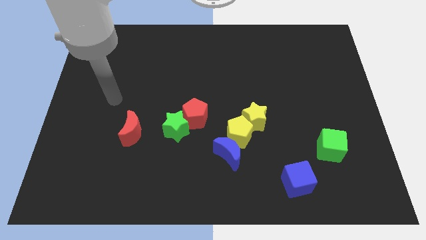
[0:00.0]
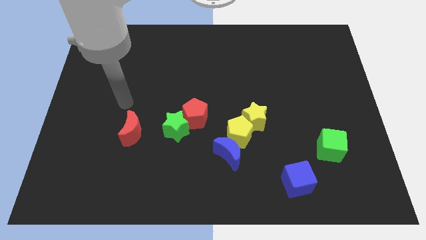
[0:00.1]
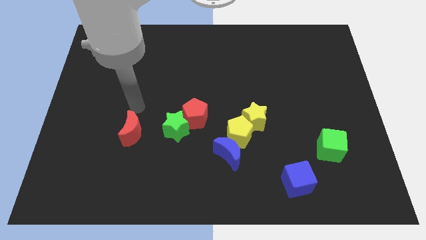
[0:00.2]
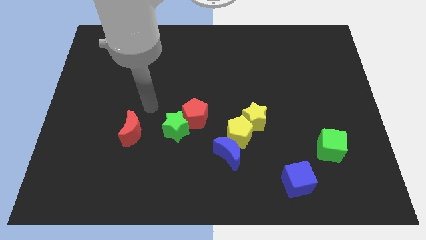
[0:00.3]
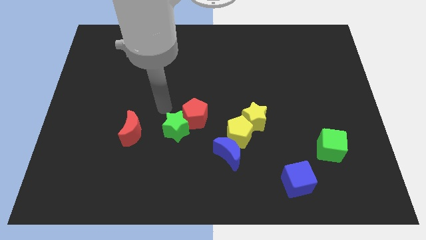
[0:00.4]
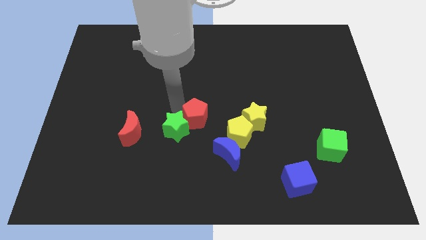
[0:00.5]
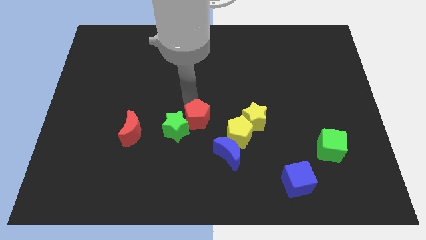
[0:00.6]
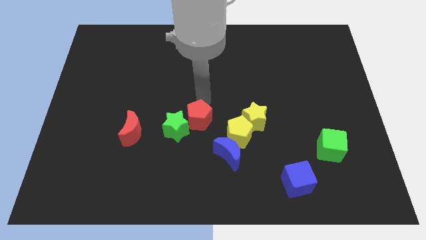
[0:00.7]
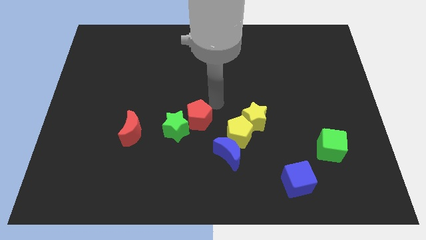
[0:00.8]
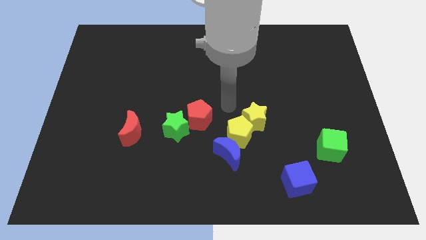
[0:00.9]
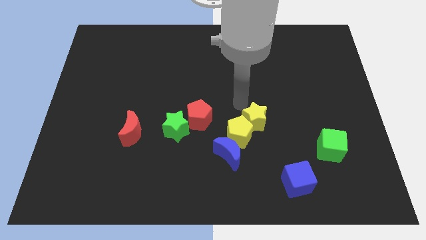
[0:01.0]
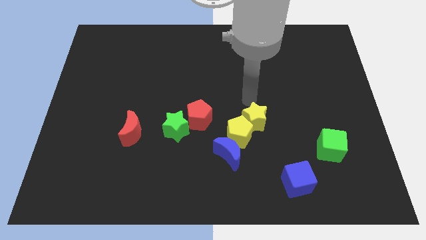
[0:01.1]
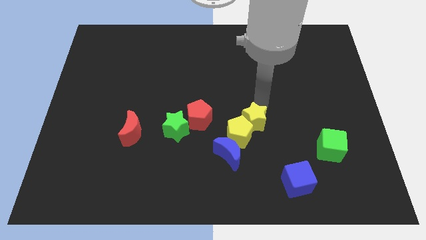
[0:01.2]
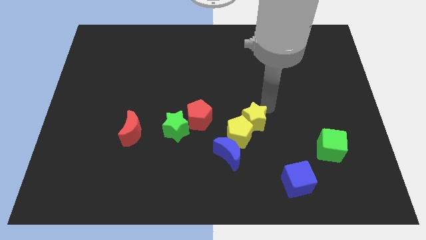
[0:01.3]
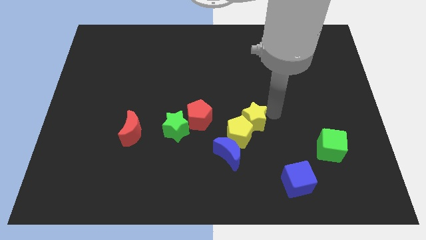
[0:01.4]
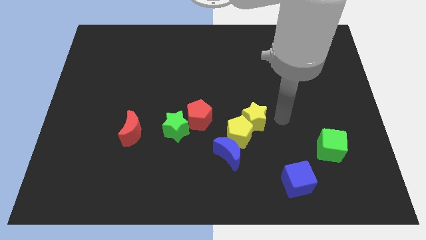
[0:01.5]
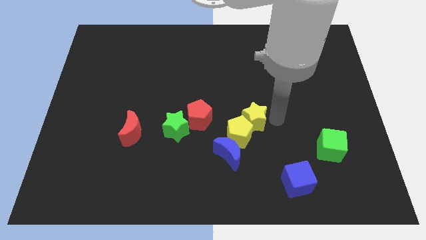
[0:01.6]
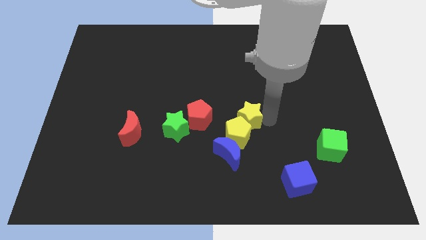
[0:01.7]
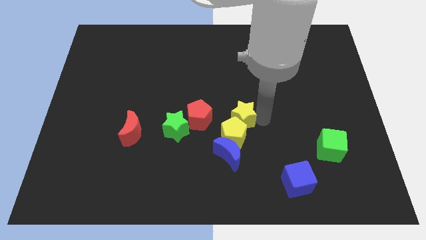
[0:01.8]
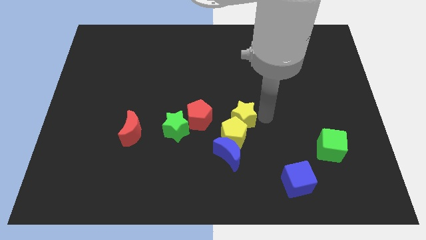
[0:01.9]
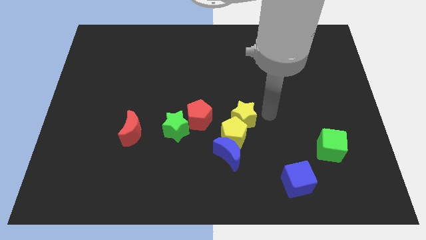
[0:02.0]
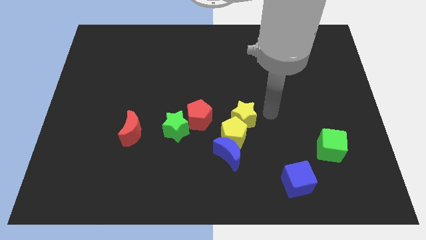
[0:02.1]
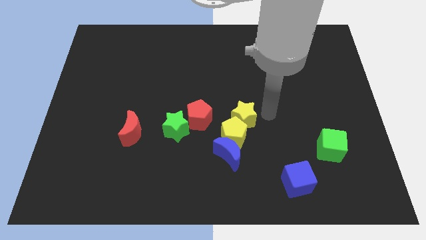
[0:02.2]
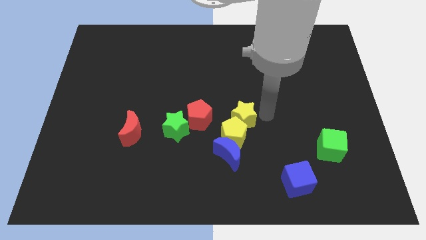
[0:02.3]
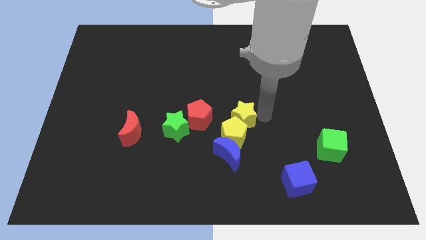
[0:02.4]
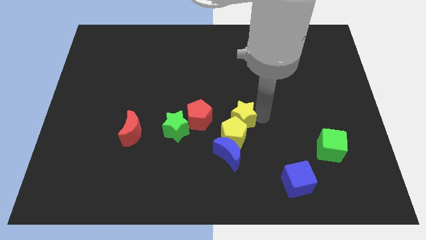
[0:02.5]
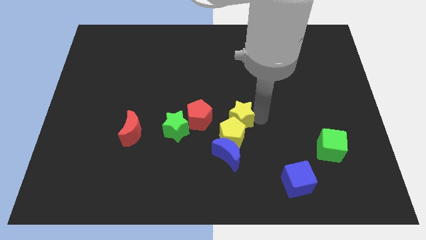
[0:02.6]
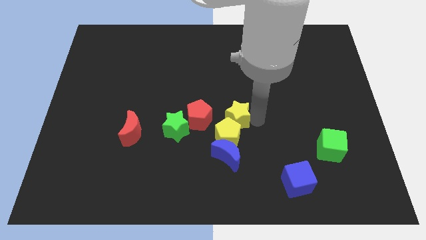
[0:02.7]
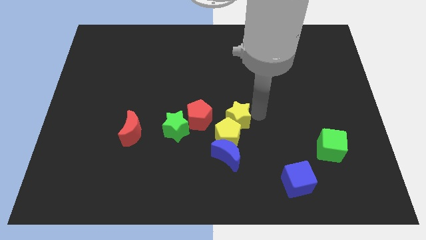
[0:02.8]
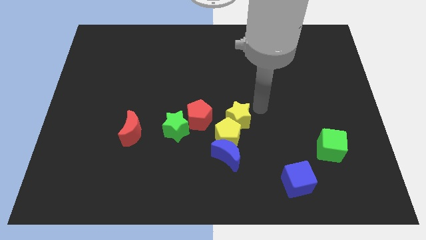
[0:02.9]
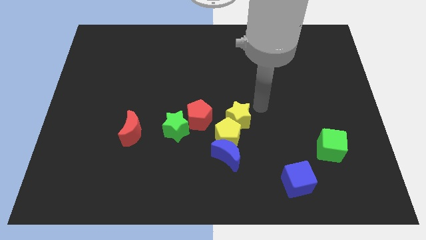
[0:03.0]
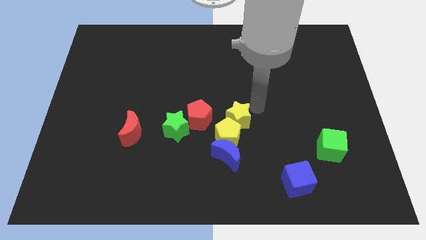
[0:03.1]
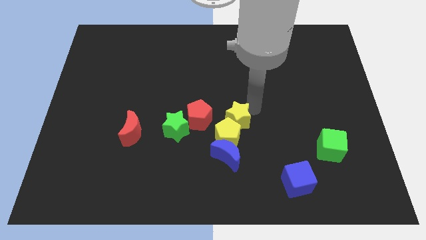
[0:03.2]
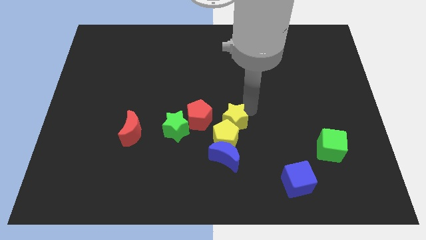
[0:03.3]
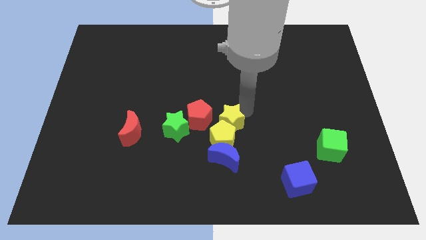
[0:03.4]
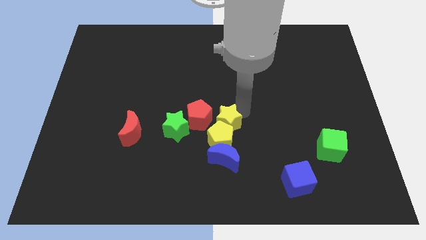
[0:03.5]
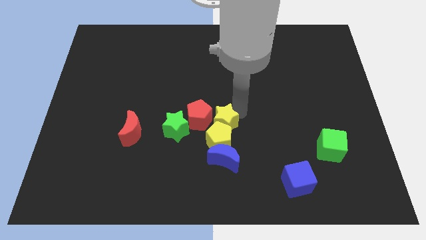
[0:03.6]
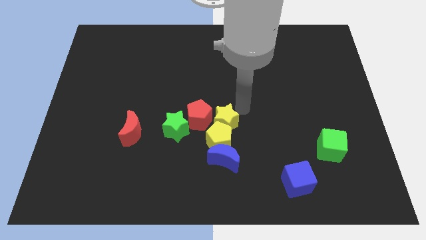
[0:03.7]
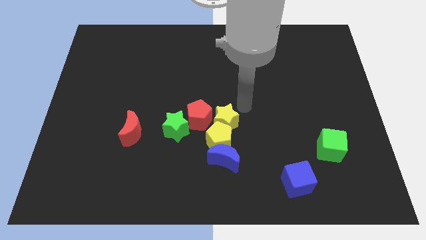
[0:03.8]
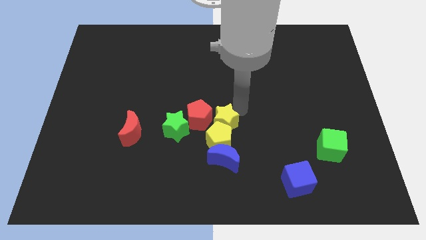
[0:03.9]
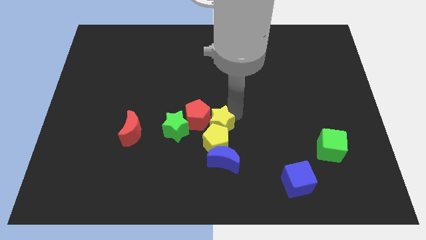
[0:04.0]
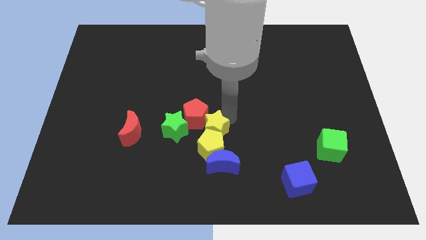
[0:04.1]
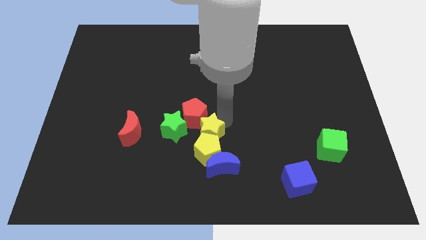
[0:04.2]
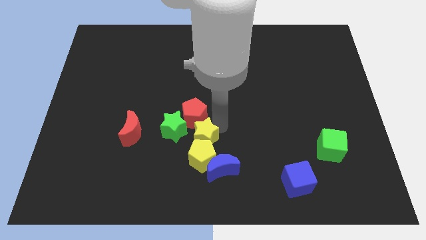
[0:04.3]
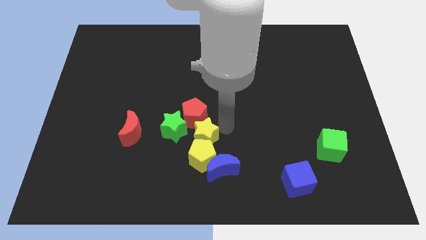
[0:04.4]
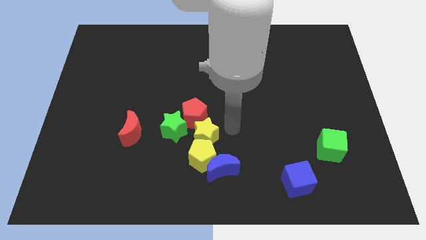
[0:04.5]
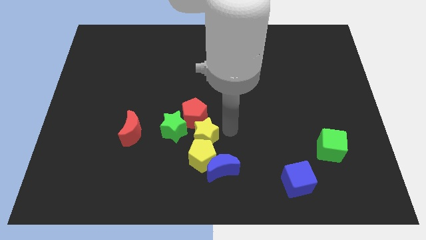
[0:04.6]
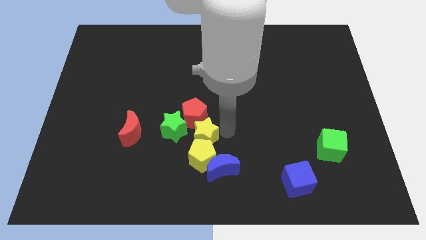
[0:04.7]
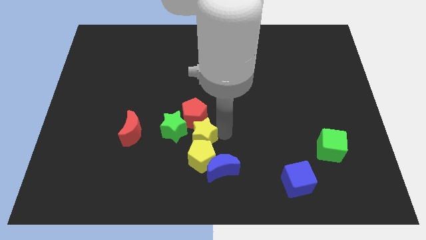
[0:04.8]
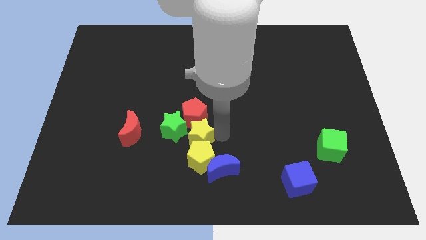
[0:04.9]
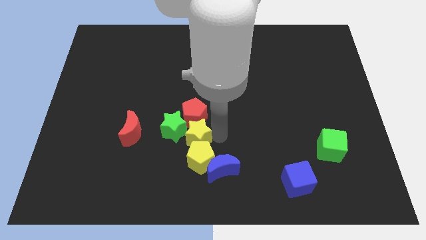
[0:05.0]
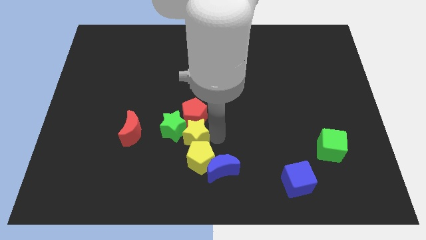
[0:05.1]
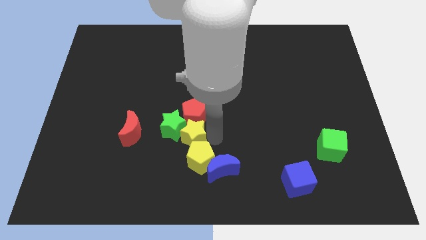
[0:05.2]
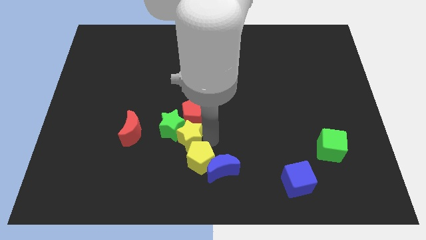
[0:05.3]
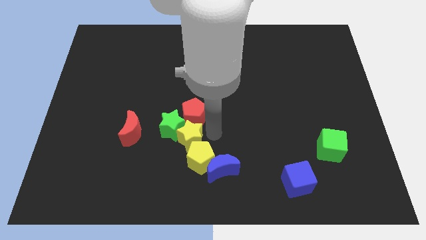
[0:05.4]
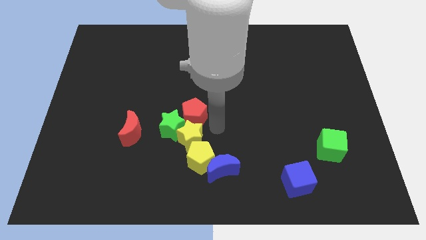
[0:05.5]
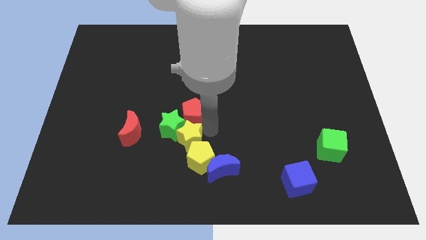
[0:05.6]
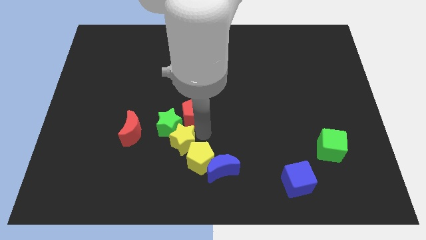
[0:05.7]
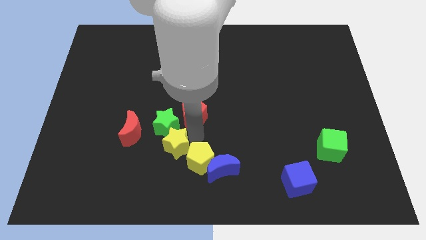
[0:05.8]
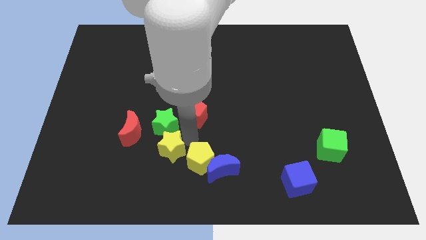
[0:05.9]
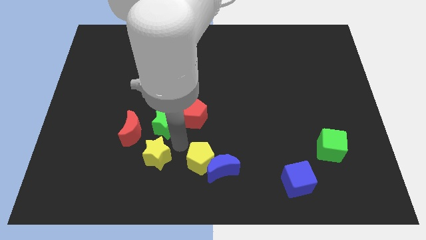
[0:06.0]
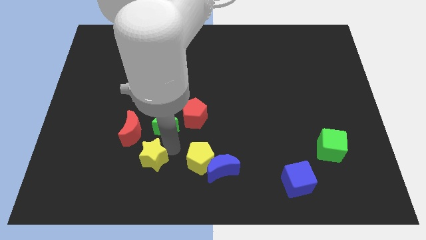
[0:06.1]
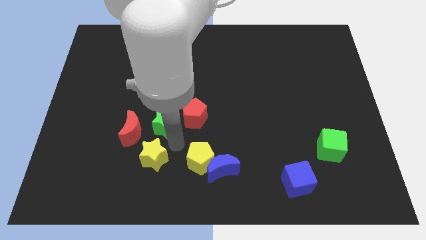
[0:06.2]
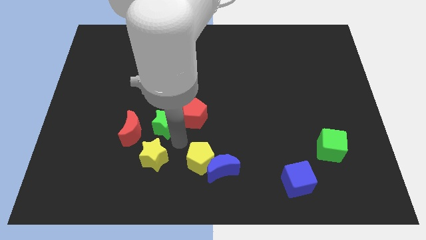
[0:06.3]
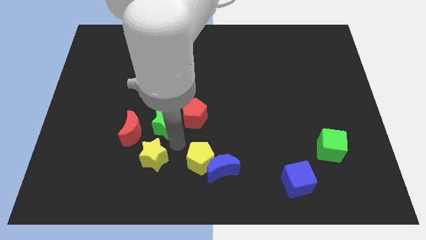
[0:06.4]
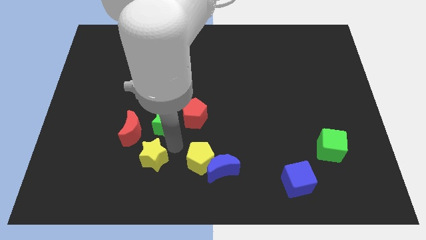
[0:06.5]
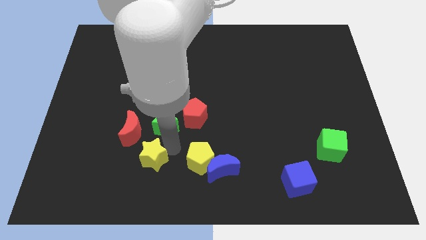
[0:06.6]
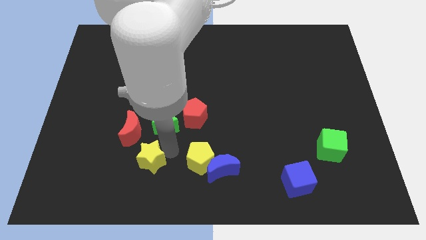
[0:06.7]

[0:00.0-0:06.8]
put the yellow star to the bottom of the red moon
